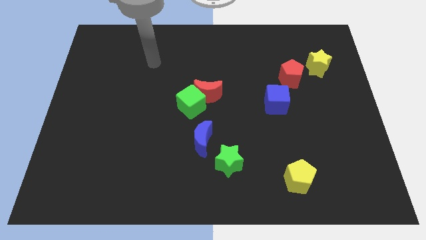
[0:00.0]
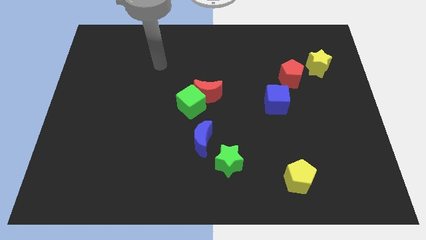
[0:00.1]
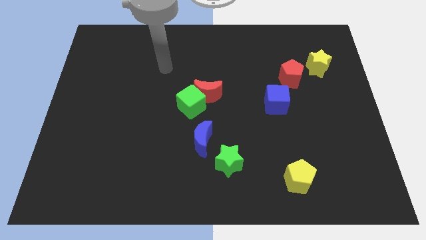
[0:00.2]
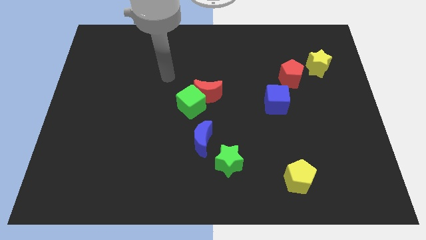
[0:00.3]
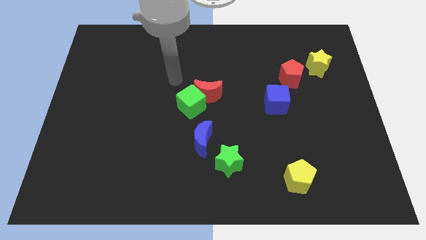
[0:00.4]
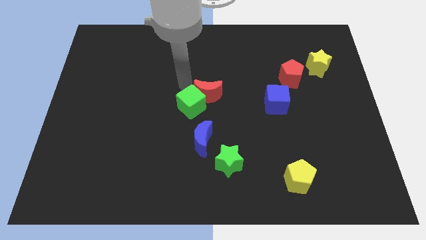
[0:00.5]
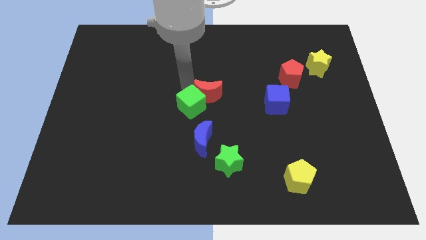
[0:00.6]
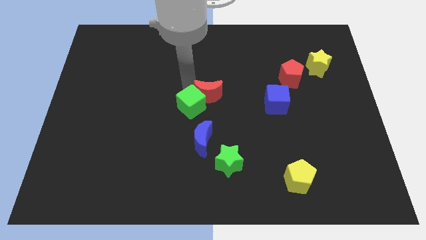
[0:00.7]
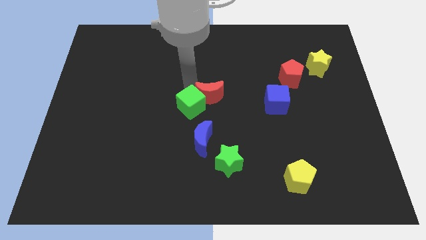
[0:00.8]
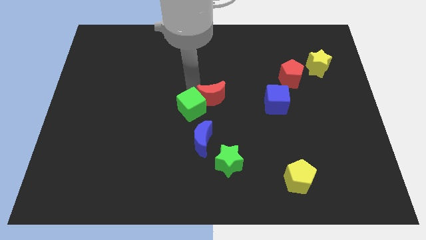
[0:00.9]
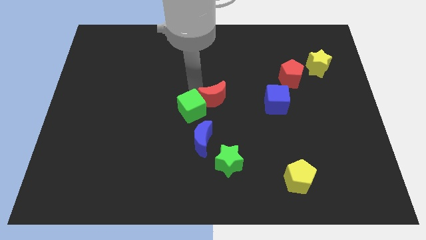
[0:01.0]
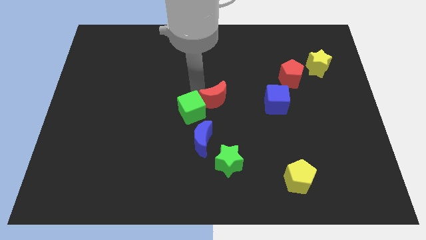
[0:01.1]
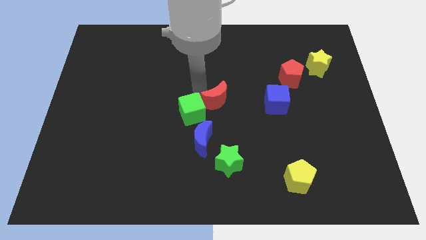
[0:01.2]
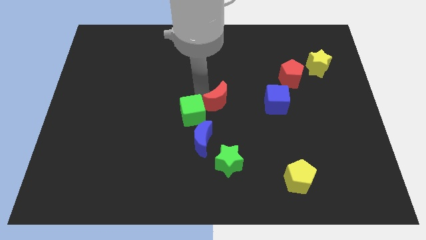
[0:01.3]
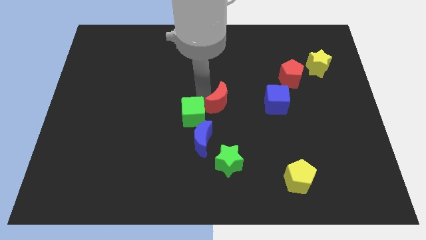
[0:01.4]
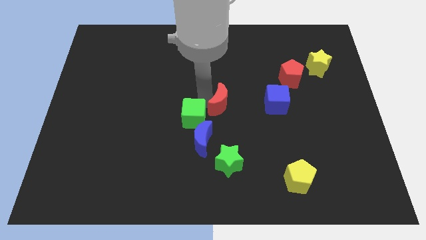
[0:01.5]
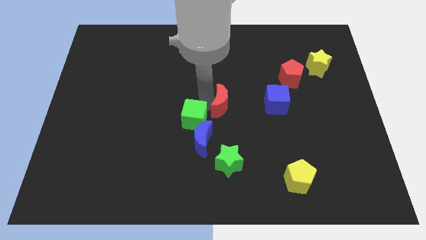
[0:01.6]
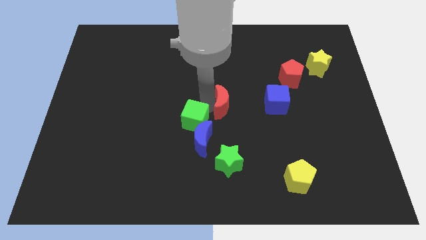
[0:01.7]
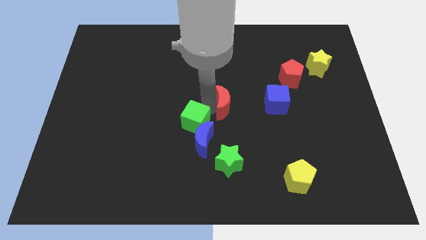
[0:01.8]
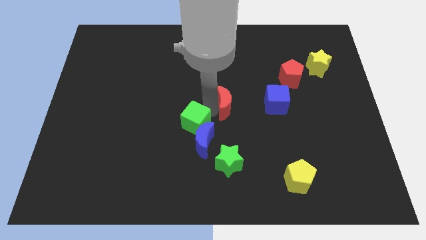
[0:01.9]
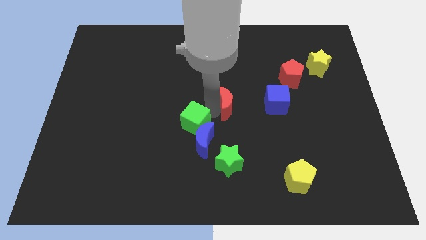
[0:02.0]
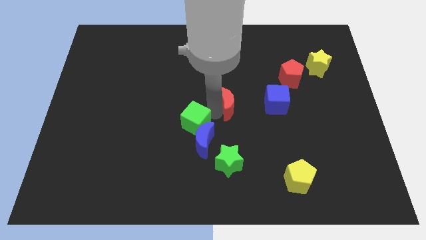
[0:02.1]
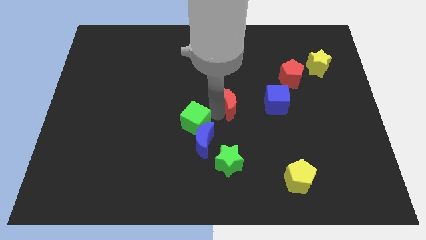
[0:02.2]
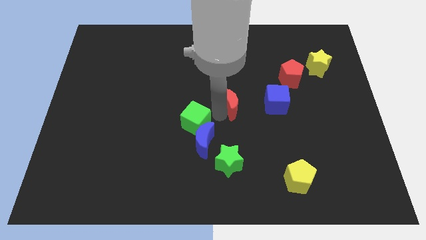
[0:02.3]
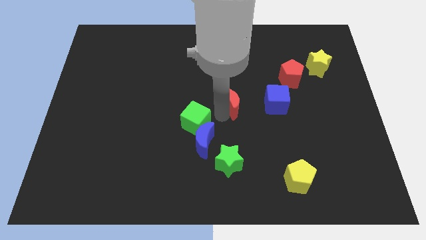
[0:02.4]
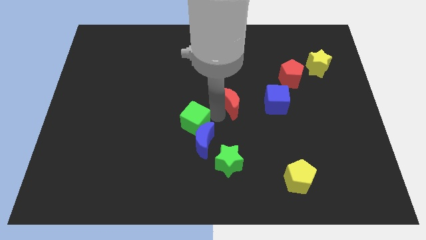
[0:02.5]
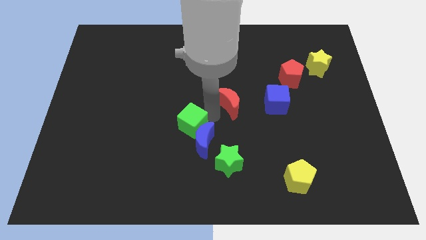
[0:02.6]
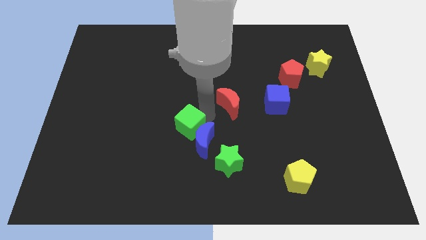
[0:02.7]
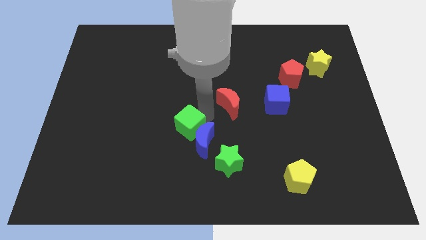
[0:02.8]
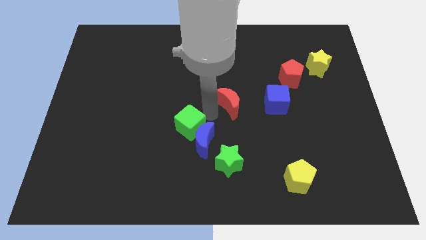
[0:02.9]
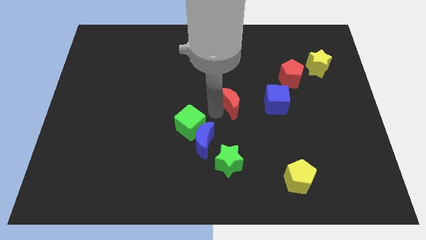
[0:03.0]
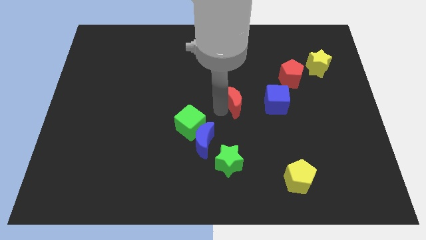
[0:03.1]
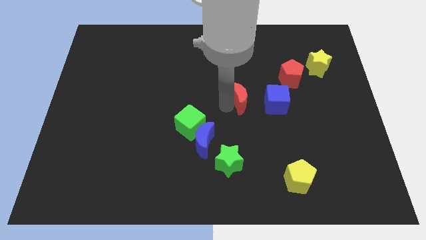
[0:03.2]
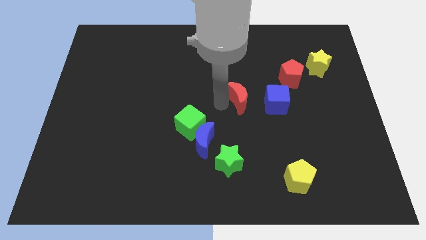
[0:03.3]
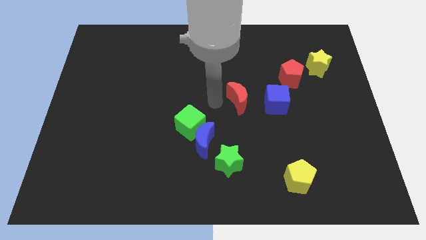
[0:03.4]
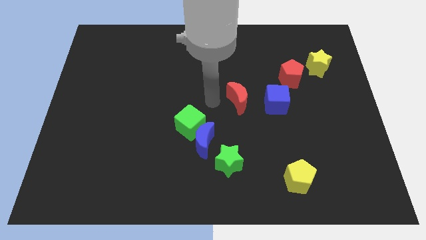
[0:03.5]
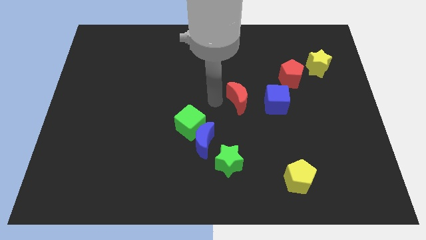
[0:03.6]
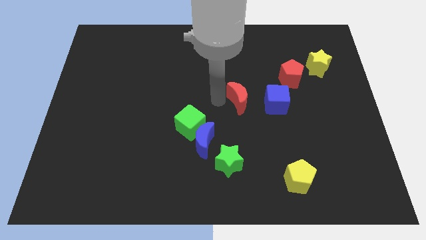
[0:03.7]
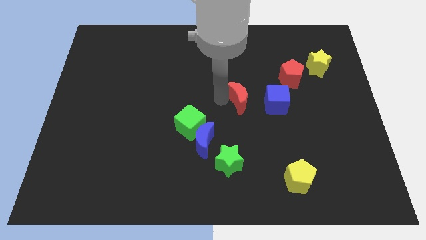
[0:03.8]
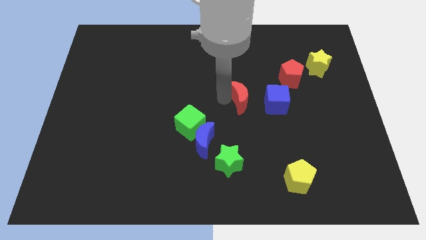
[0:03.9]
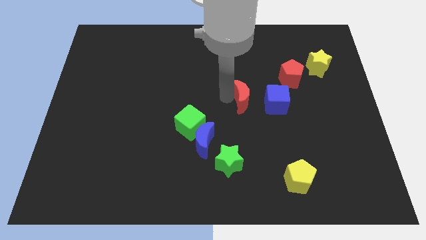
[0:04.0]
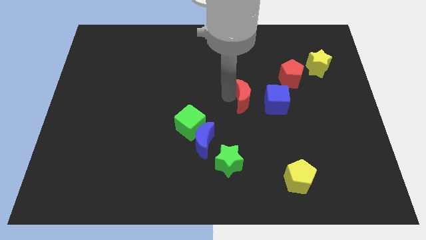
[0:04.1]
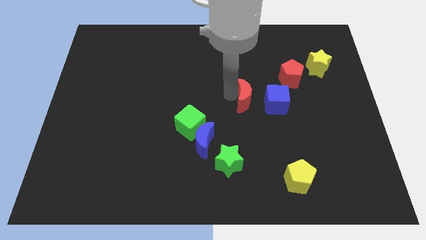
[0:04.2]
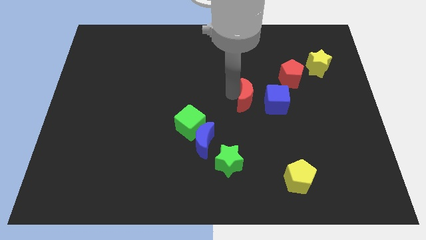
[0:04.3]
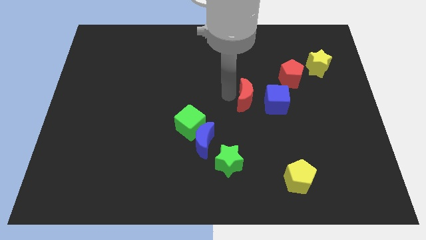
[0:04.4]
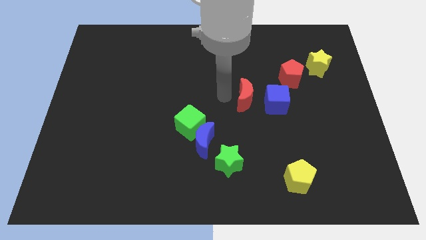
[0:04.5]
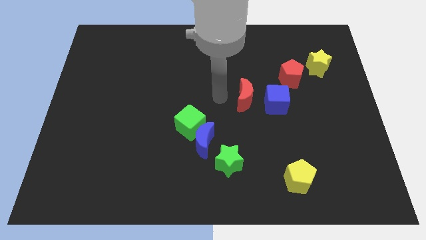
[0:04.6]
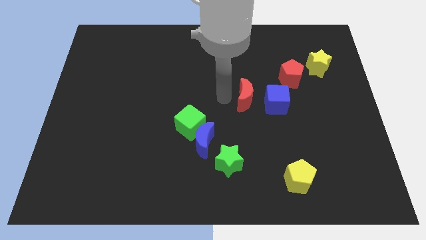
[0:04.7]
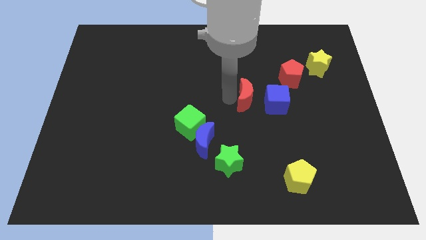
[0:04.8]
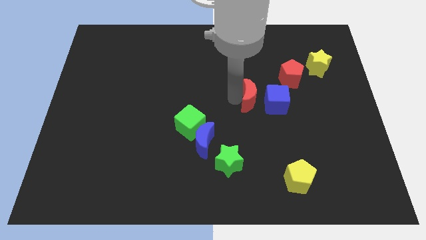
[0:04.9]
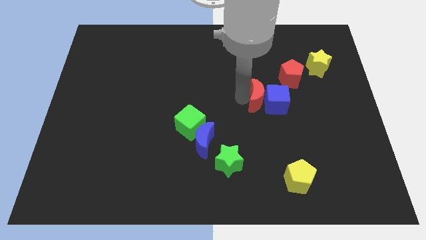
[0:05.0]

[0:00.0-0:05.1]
push the red moon to the blue cube

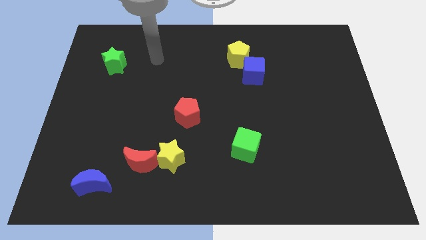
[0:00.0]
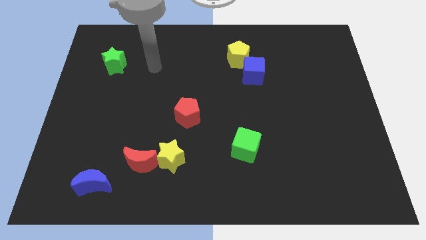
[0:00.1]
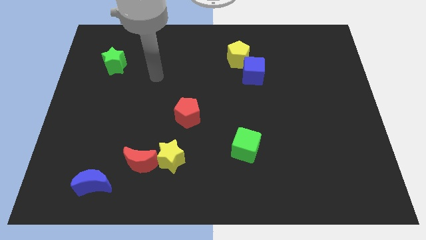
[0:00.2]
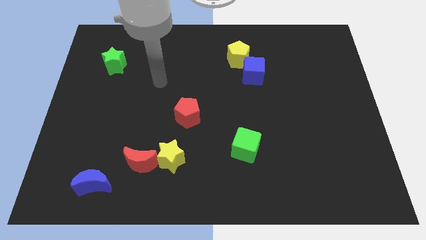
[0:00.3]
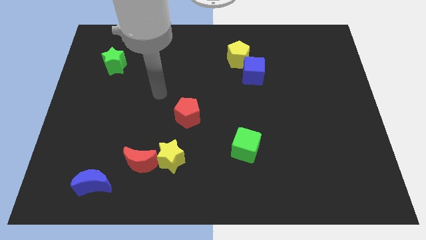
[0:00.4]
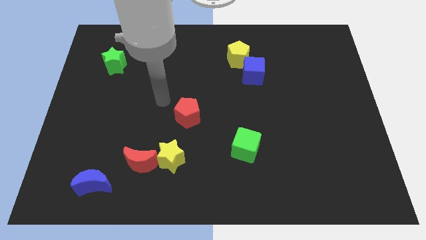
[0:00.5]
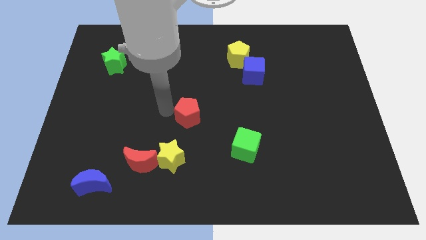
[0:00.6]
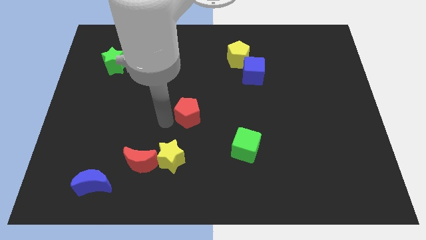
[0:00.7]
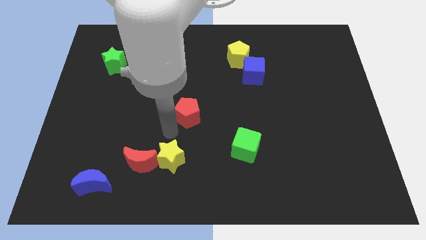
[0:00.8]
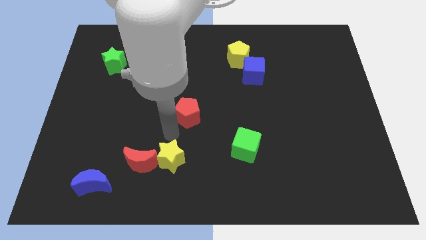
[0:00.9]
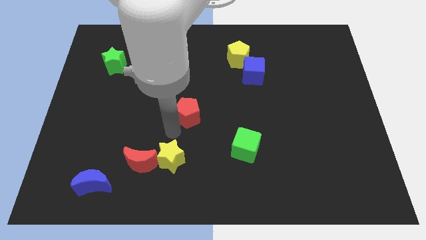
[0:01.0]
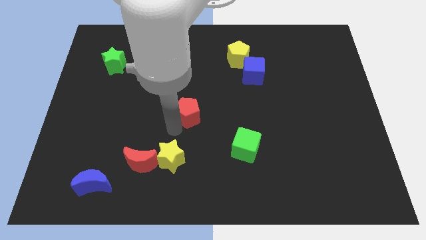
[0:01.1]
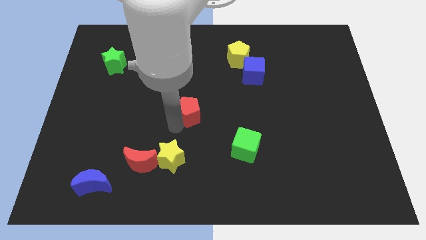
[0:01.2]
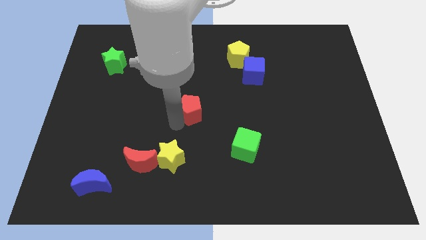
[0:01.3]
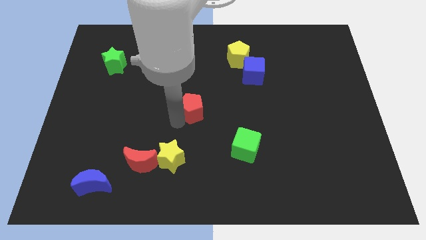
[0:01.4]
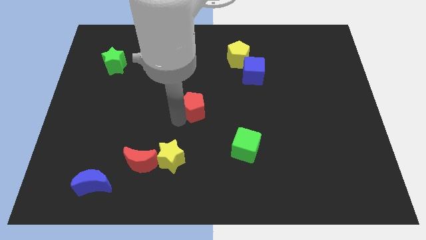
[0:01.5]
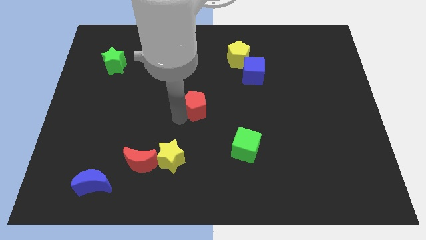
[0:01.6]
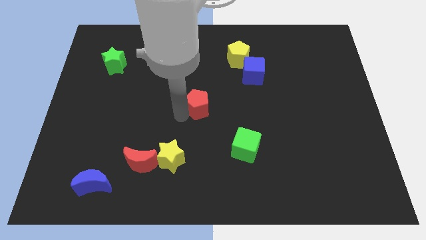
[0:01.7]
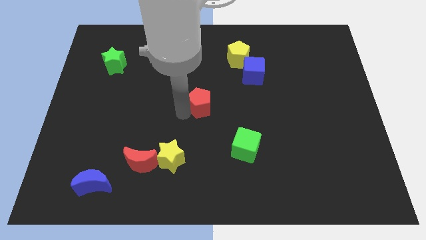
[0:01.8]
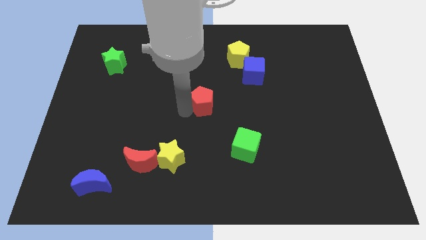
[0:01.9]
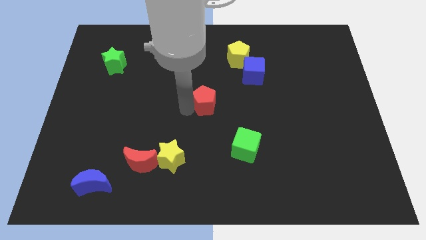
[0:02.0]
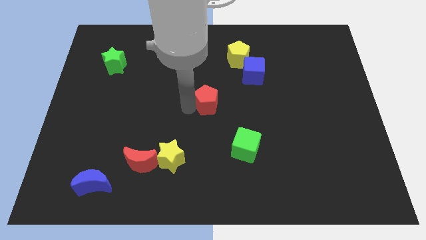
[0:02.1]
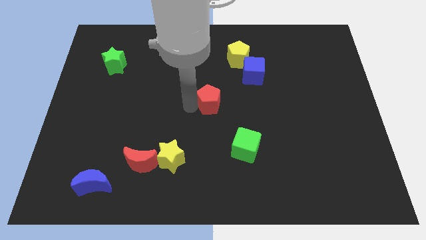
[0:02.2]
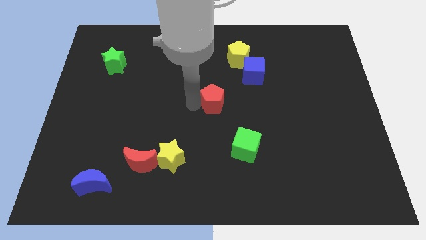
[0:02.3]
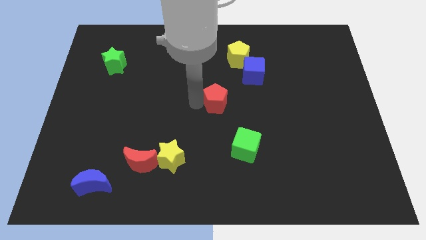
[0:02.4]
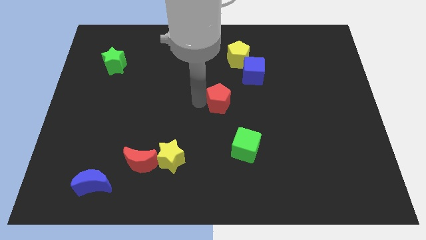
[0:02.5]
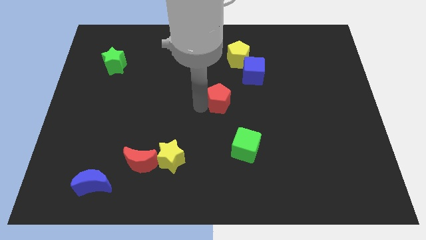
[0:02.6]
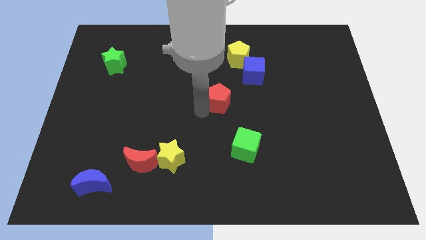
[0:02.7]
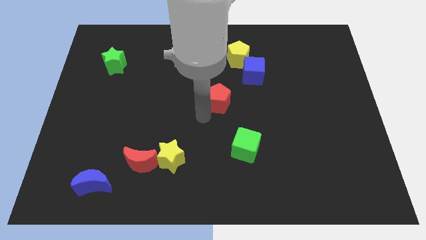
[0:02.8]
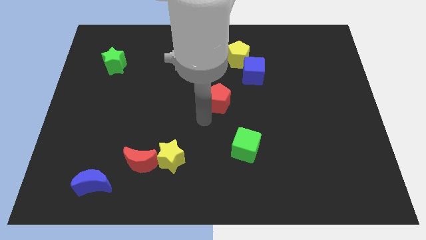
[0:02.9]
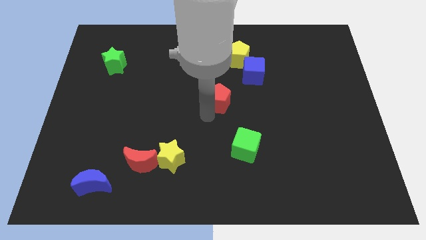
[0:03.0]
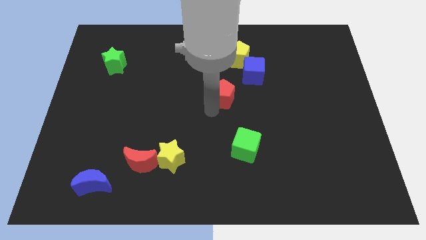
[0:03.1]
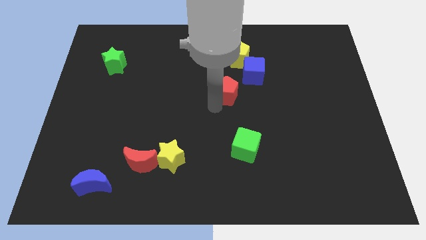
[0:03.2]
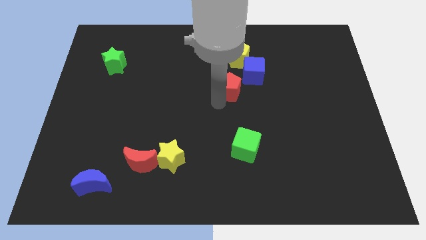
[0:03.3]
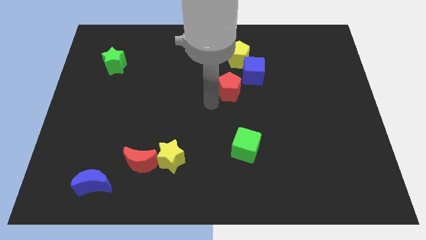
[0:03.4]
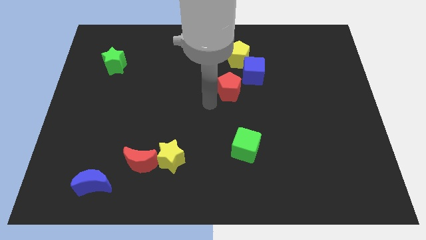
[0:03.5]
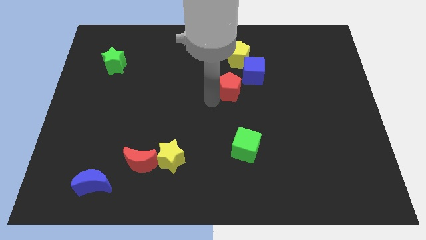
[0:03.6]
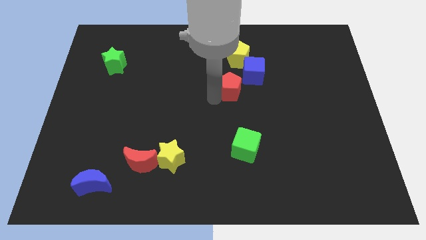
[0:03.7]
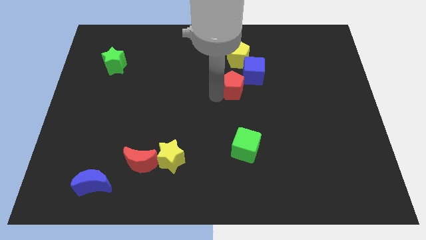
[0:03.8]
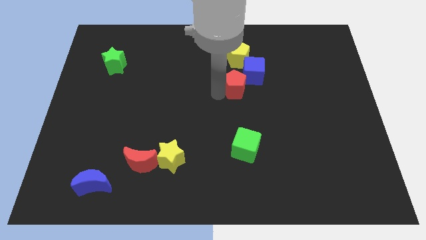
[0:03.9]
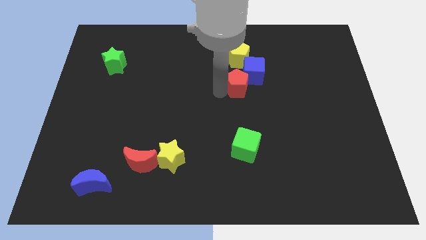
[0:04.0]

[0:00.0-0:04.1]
put the red pentagon to the blue cube
